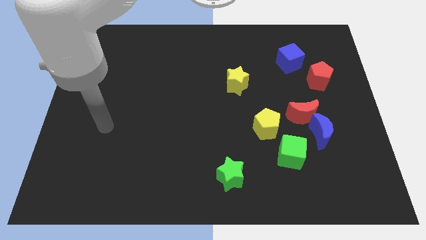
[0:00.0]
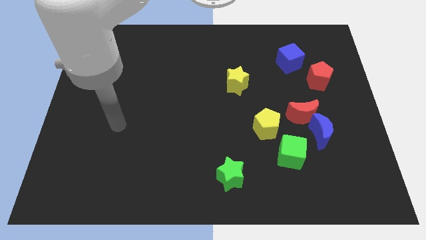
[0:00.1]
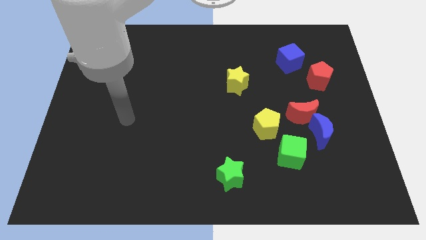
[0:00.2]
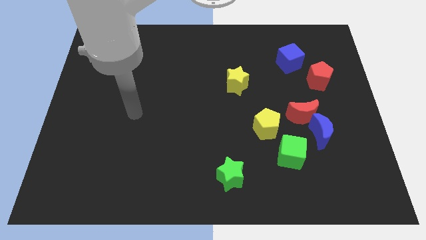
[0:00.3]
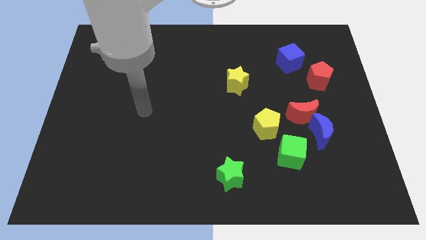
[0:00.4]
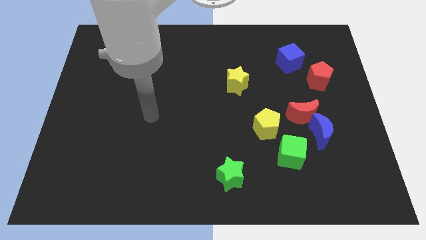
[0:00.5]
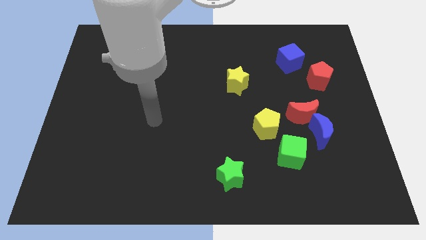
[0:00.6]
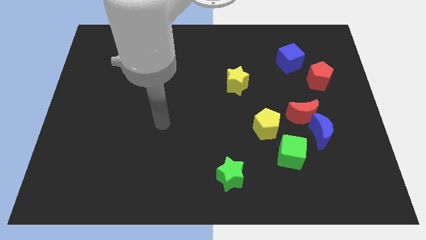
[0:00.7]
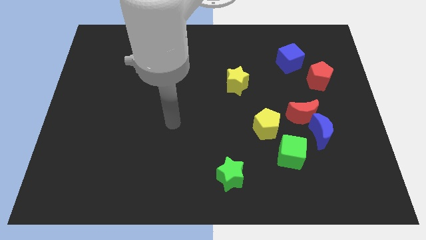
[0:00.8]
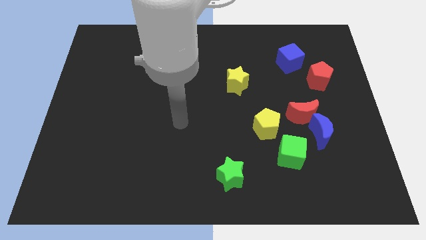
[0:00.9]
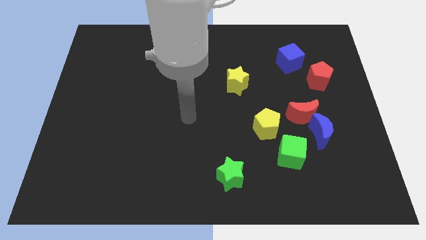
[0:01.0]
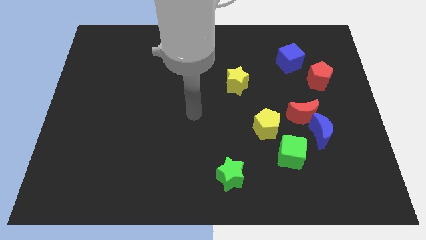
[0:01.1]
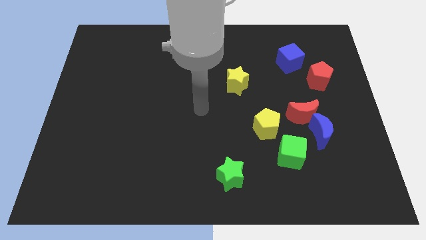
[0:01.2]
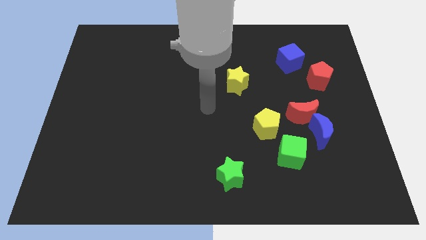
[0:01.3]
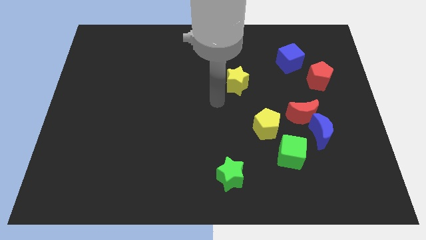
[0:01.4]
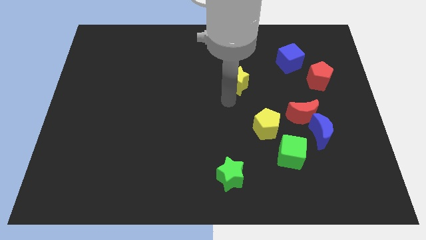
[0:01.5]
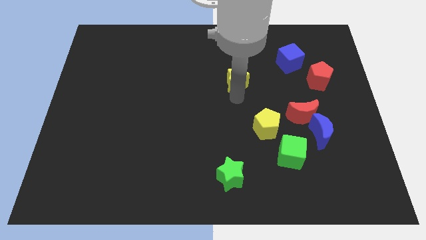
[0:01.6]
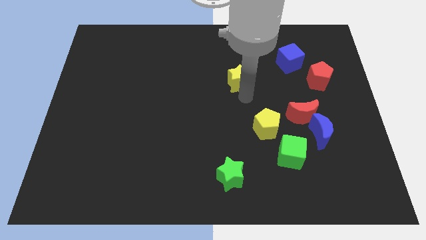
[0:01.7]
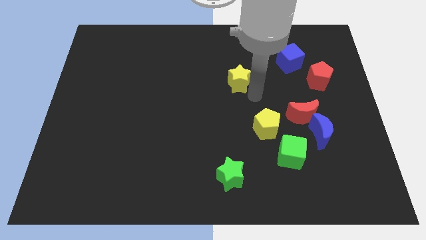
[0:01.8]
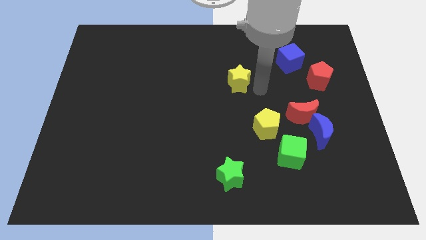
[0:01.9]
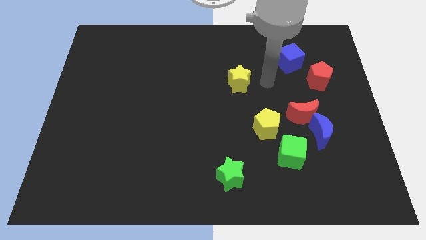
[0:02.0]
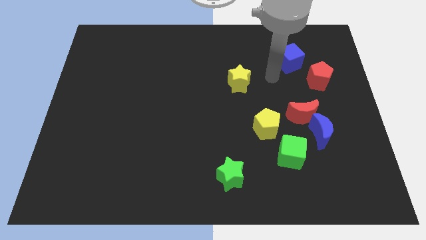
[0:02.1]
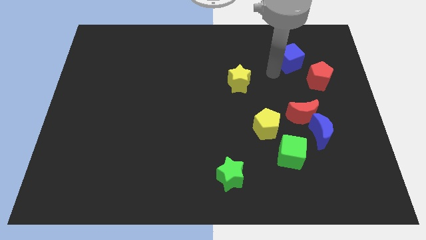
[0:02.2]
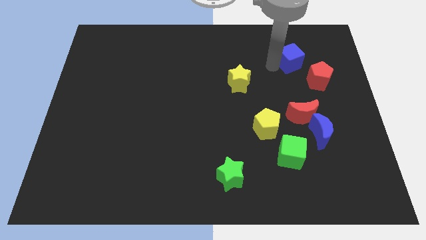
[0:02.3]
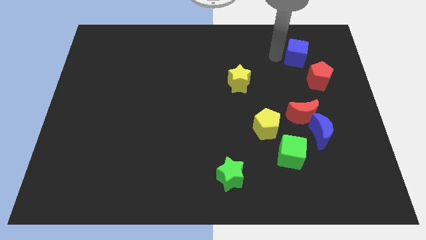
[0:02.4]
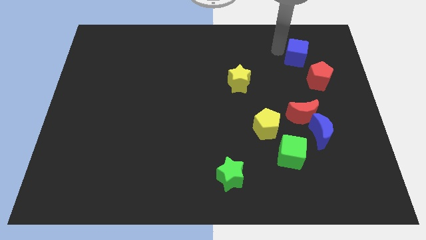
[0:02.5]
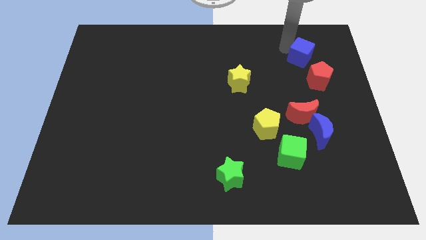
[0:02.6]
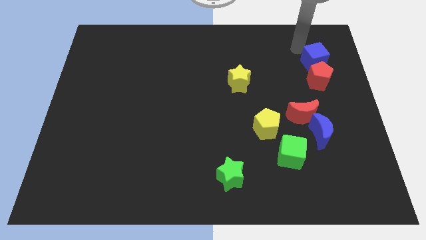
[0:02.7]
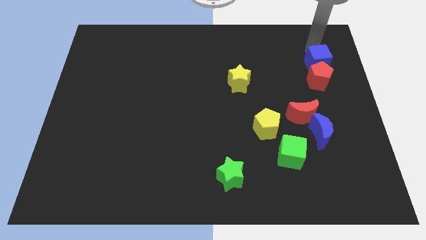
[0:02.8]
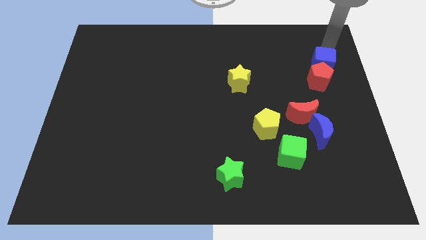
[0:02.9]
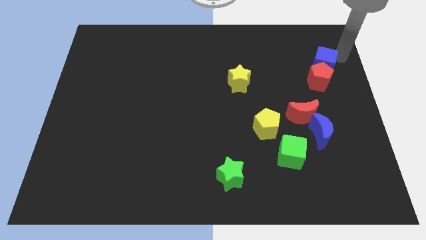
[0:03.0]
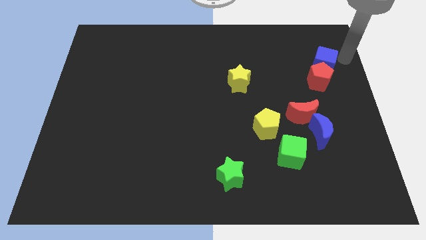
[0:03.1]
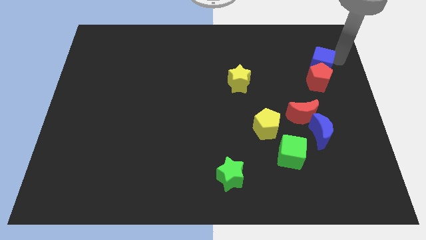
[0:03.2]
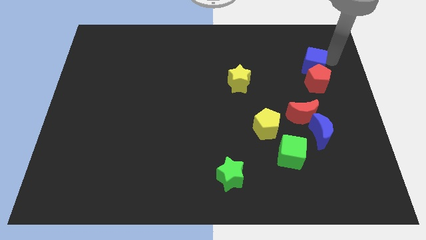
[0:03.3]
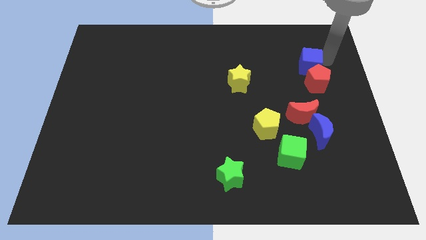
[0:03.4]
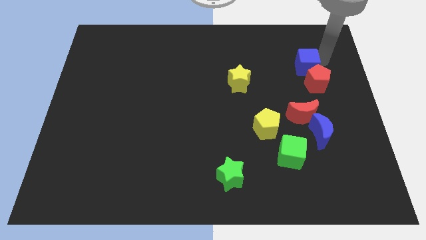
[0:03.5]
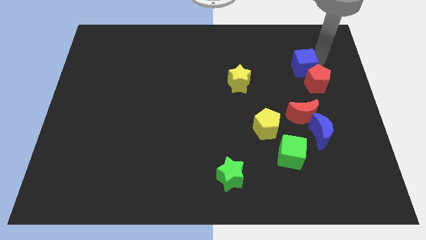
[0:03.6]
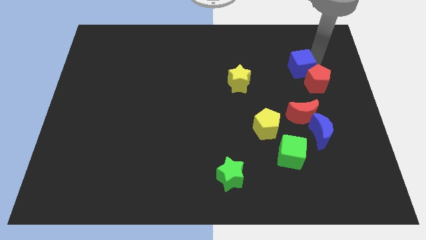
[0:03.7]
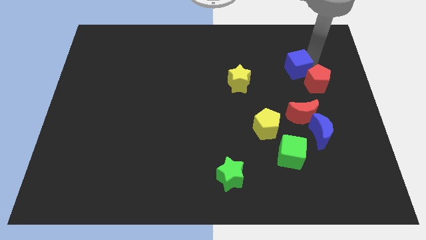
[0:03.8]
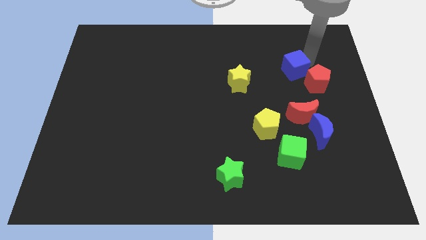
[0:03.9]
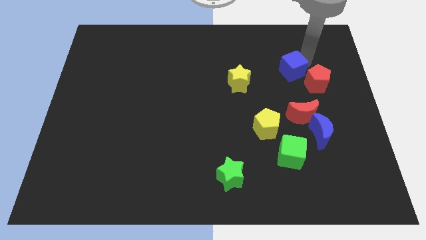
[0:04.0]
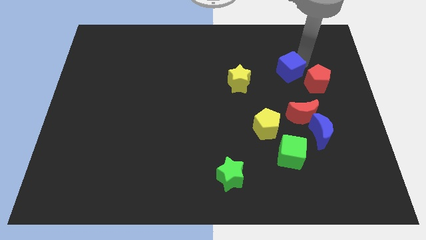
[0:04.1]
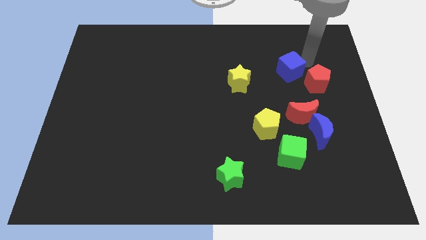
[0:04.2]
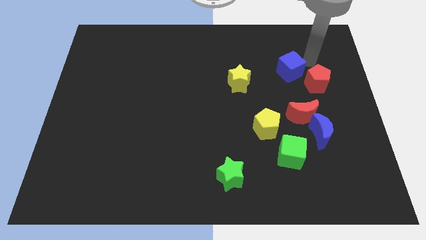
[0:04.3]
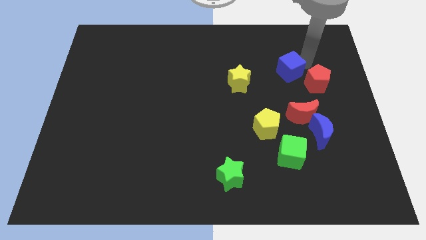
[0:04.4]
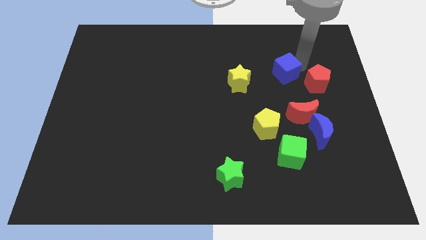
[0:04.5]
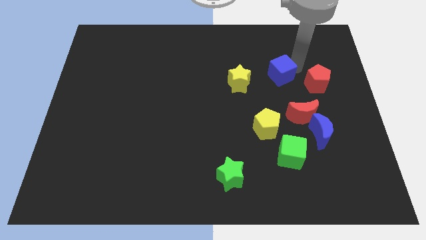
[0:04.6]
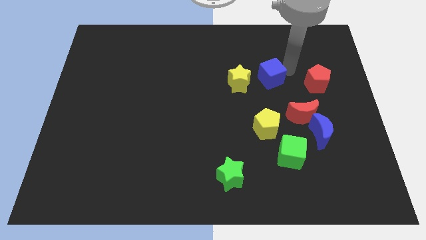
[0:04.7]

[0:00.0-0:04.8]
push the blue cube downwards and left diagonally a little

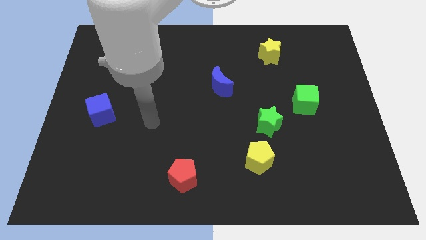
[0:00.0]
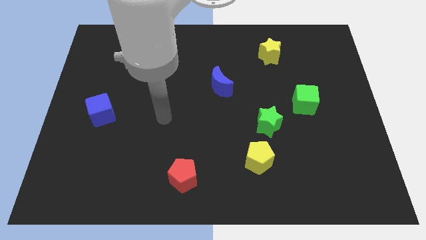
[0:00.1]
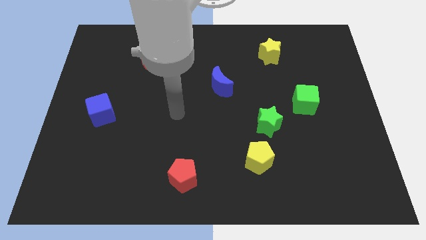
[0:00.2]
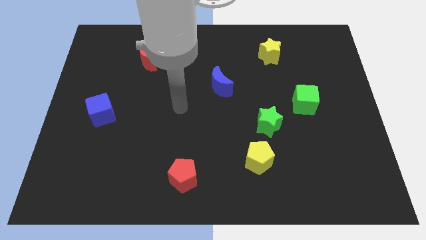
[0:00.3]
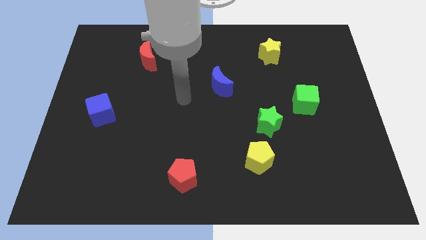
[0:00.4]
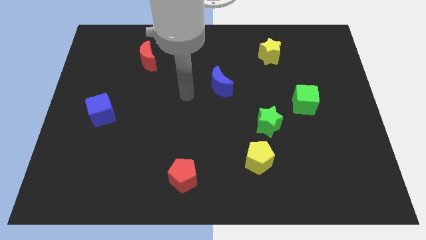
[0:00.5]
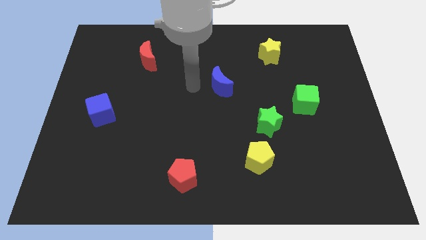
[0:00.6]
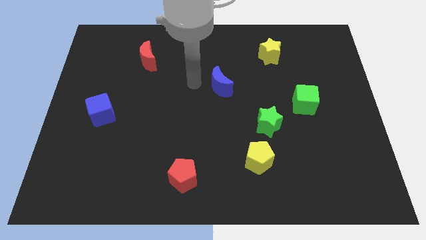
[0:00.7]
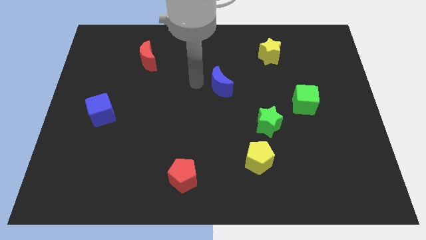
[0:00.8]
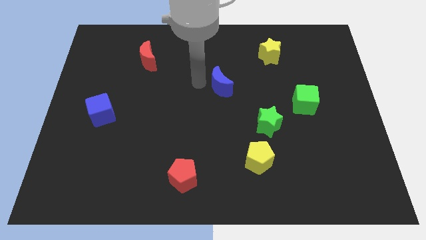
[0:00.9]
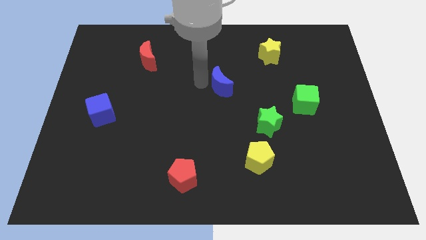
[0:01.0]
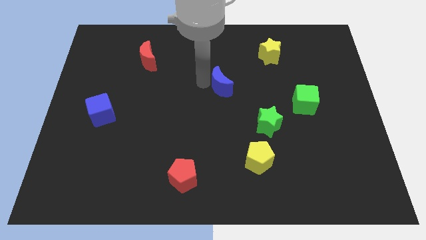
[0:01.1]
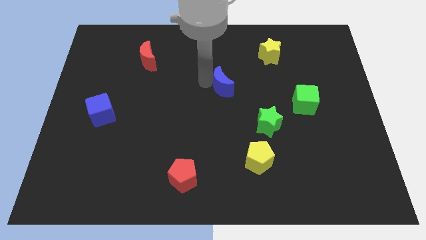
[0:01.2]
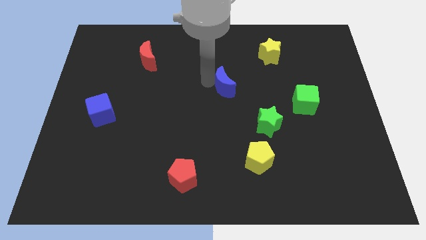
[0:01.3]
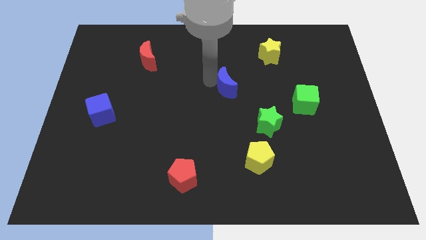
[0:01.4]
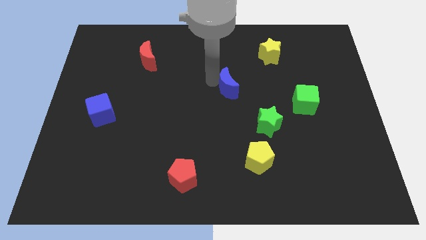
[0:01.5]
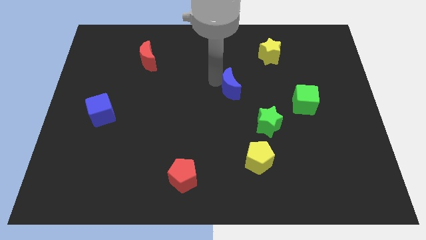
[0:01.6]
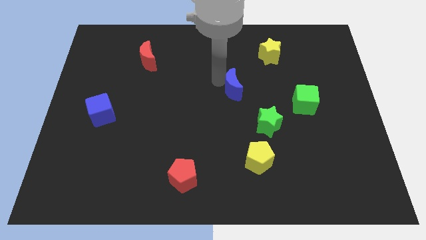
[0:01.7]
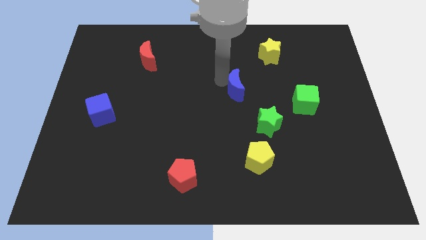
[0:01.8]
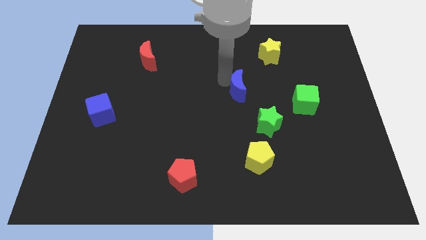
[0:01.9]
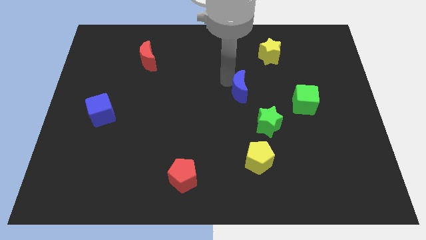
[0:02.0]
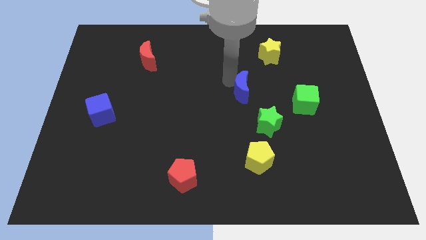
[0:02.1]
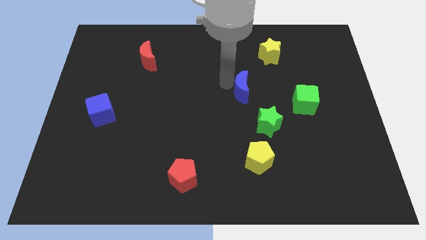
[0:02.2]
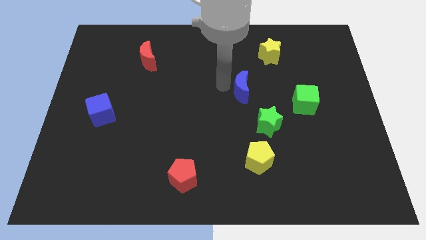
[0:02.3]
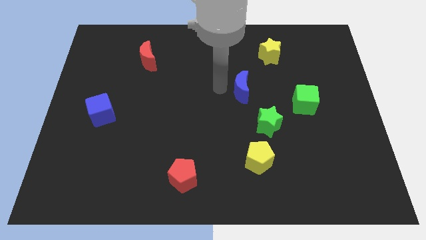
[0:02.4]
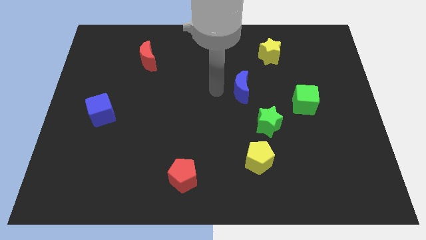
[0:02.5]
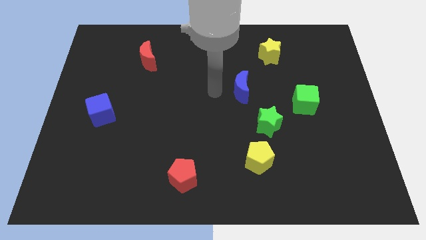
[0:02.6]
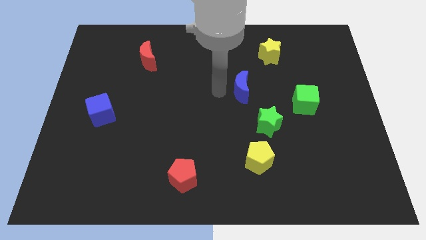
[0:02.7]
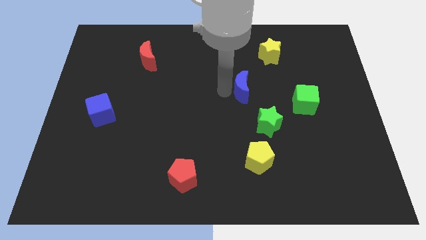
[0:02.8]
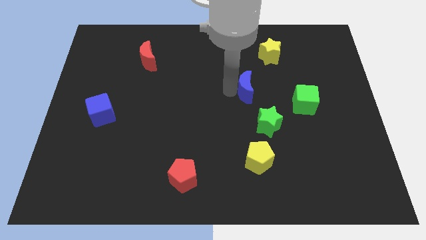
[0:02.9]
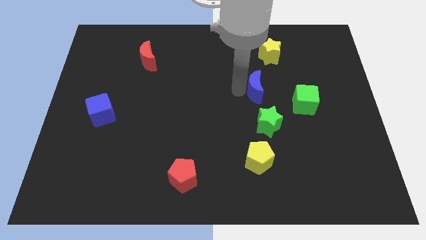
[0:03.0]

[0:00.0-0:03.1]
push the blue moon slightly right
